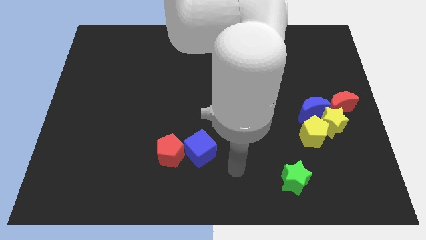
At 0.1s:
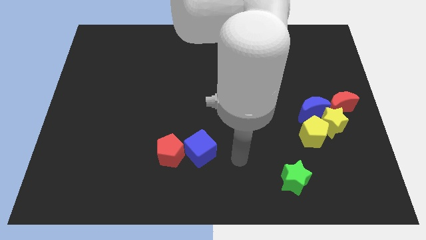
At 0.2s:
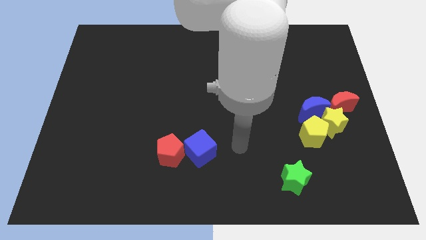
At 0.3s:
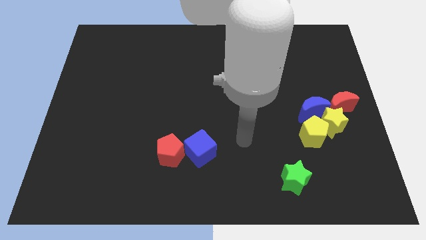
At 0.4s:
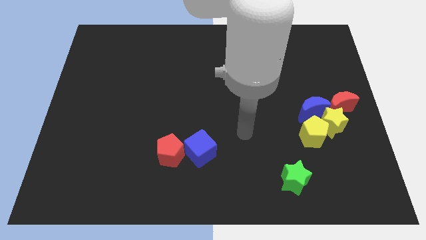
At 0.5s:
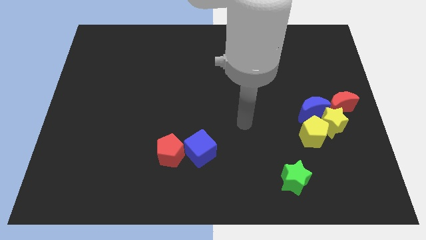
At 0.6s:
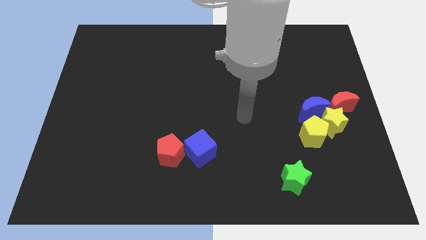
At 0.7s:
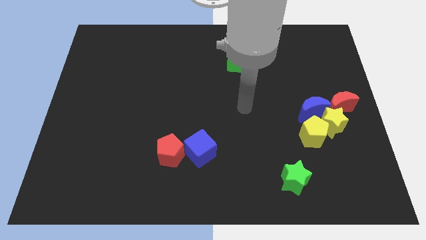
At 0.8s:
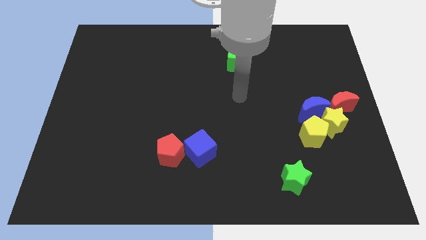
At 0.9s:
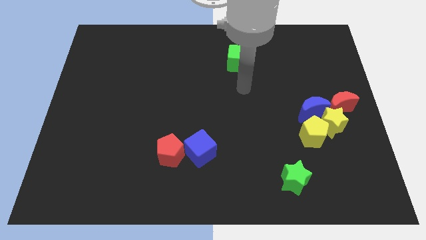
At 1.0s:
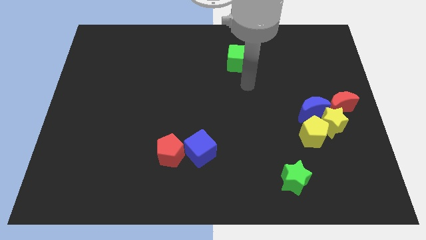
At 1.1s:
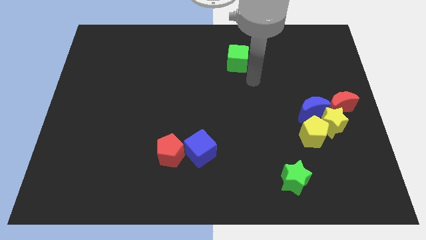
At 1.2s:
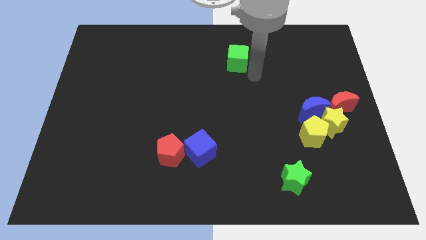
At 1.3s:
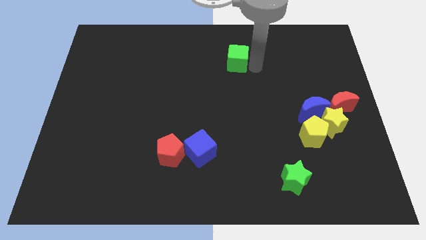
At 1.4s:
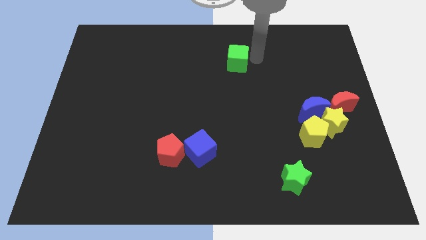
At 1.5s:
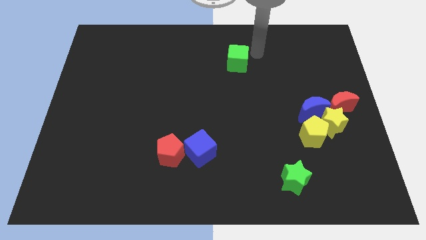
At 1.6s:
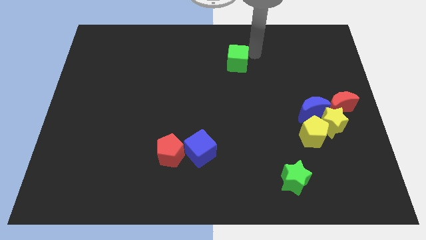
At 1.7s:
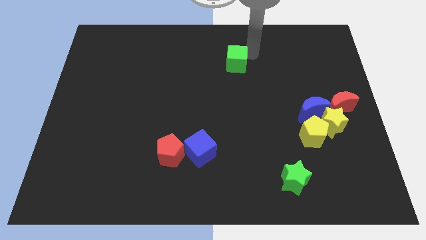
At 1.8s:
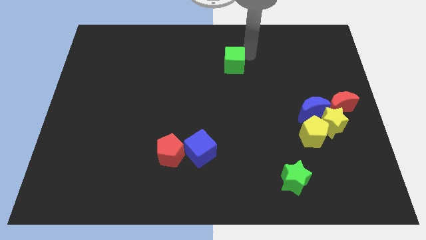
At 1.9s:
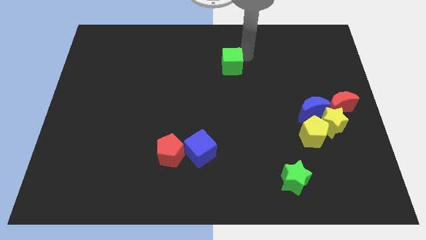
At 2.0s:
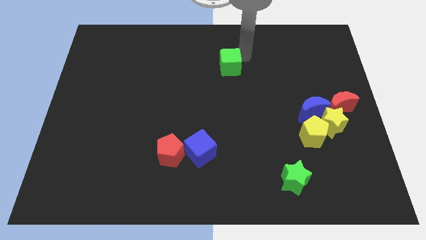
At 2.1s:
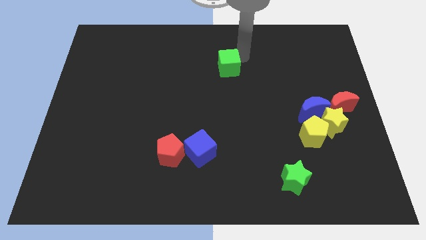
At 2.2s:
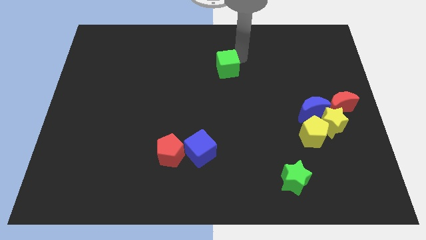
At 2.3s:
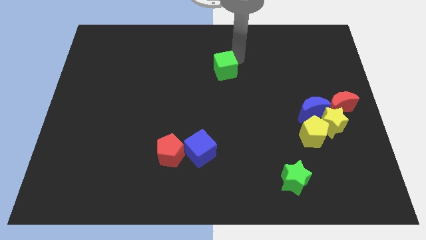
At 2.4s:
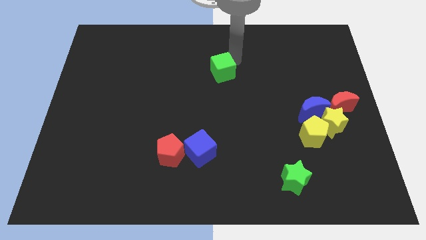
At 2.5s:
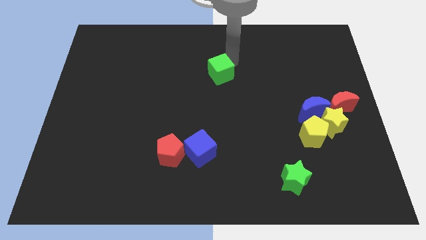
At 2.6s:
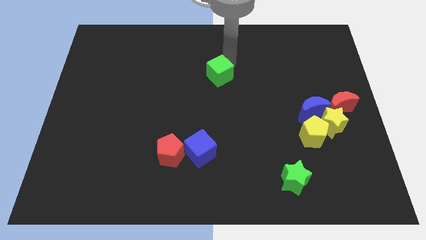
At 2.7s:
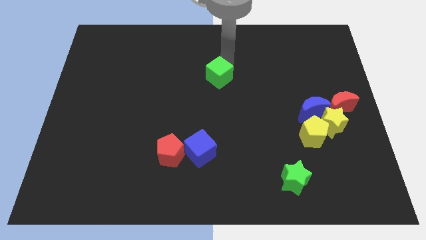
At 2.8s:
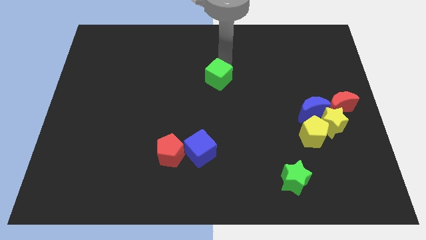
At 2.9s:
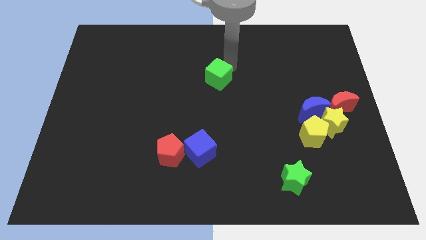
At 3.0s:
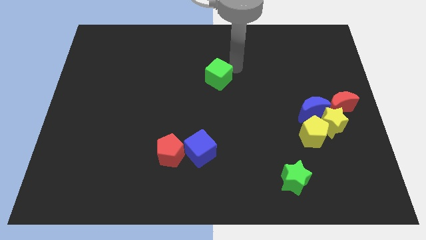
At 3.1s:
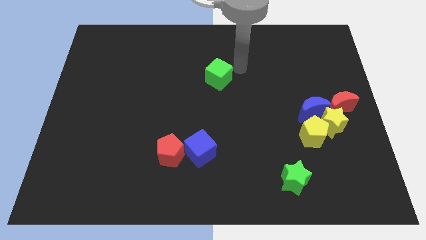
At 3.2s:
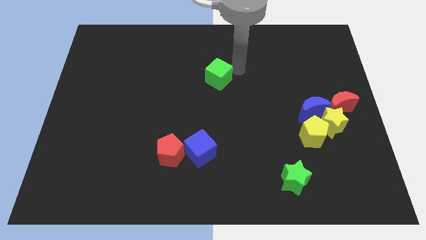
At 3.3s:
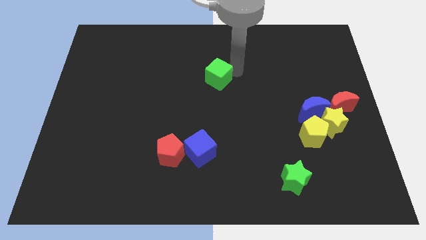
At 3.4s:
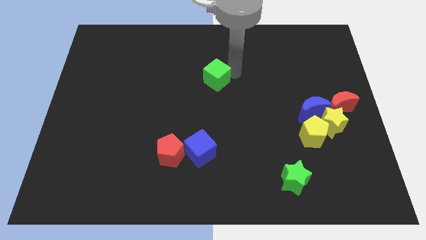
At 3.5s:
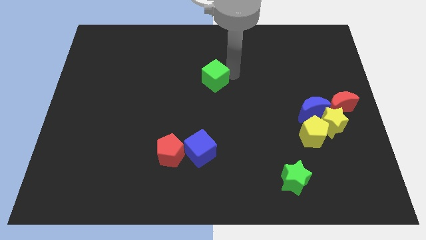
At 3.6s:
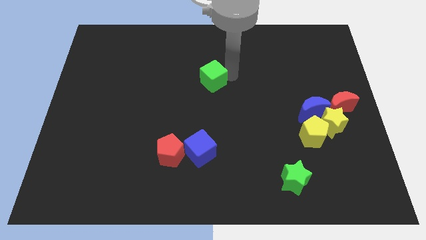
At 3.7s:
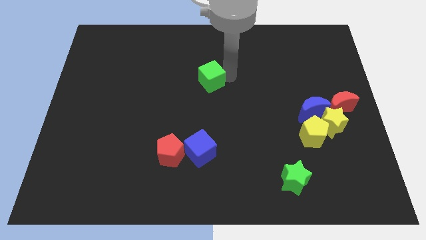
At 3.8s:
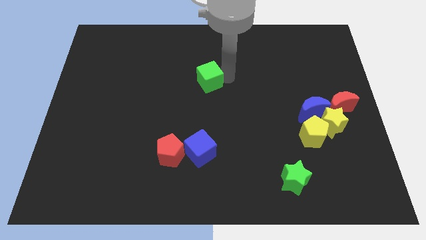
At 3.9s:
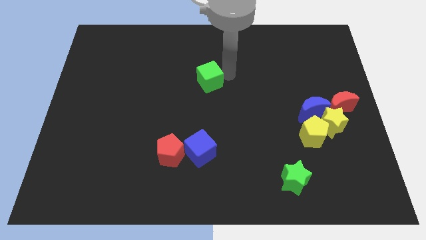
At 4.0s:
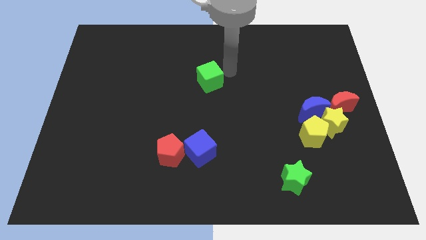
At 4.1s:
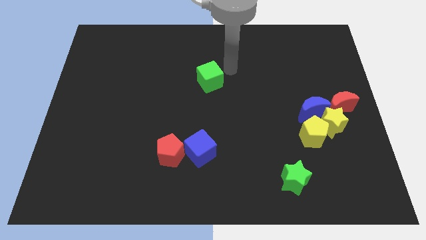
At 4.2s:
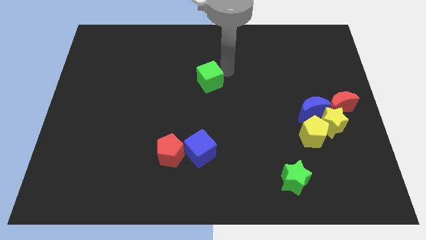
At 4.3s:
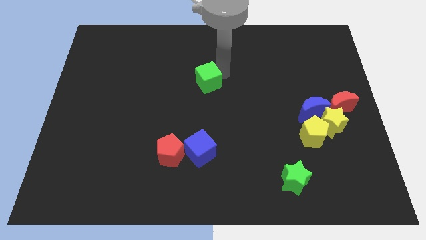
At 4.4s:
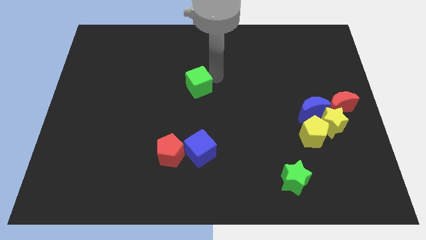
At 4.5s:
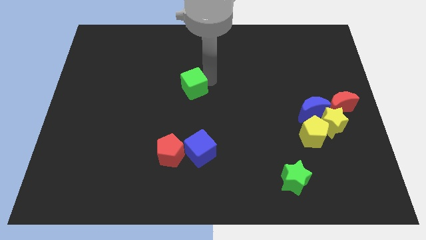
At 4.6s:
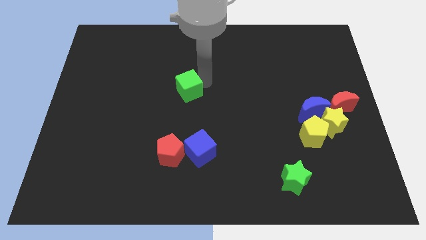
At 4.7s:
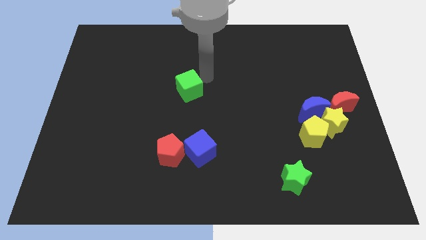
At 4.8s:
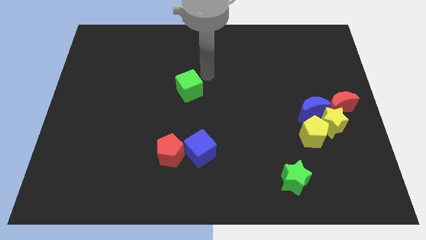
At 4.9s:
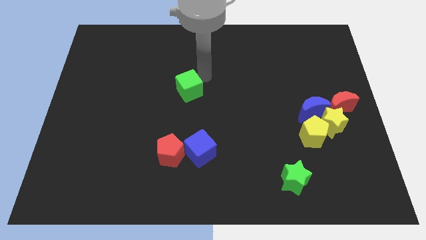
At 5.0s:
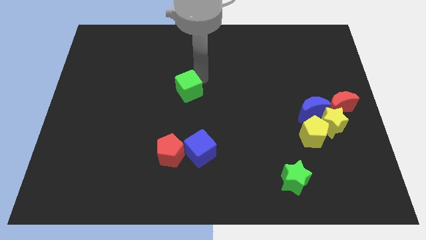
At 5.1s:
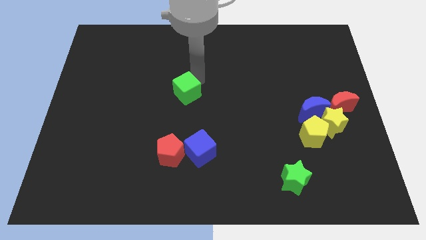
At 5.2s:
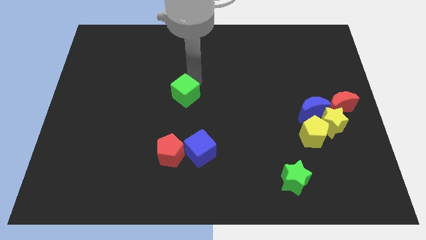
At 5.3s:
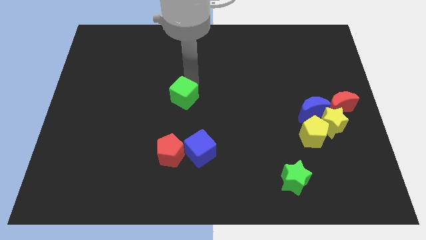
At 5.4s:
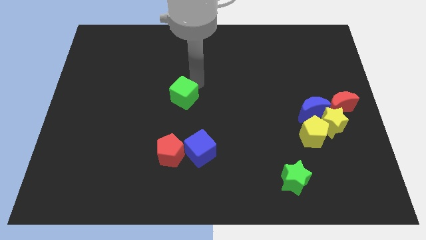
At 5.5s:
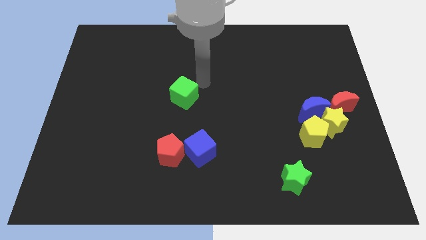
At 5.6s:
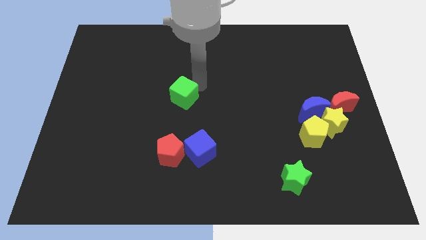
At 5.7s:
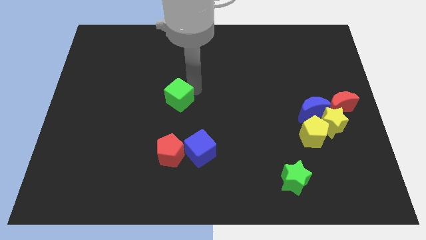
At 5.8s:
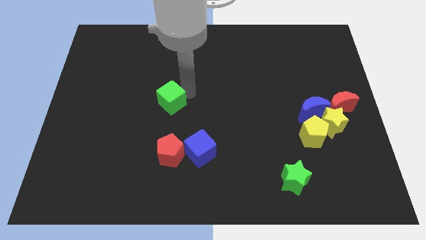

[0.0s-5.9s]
push the green cube diagonally downwards and left

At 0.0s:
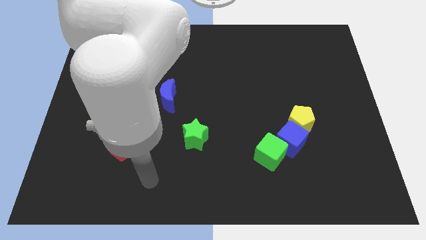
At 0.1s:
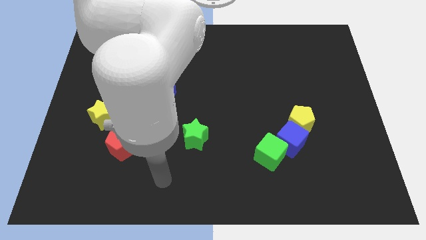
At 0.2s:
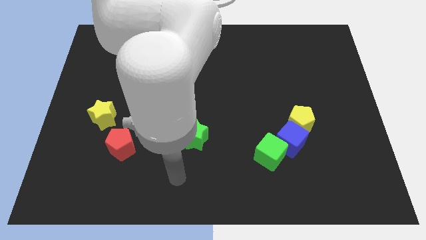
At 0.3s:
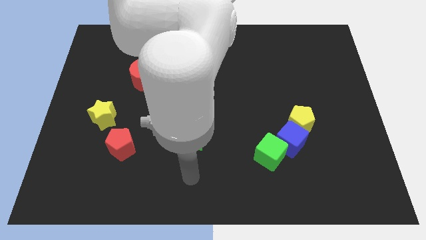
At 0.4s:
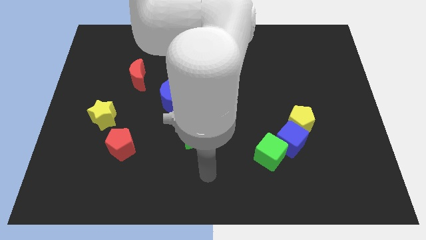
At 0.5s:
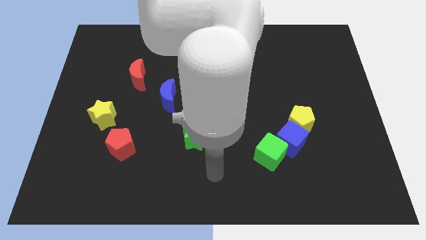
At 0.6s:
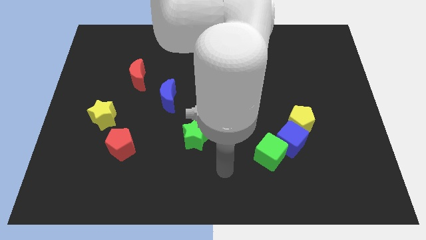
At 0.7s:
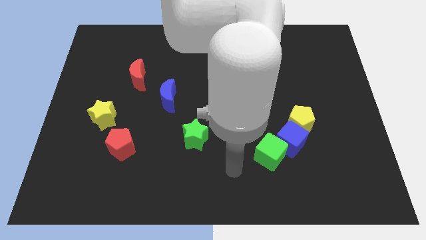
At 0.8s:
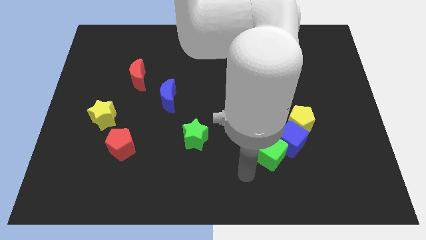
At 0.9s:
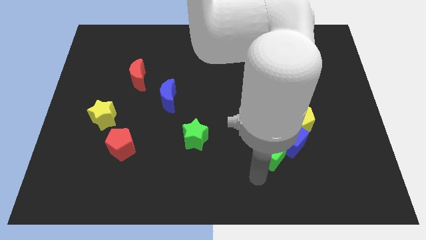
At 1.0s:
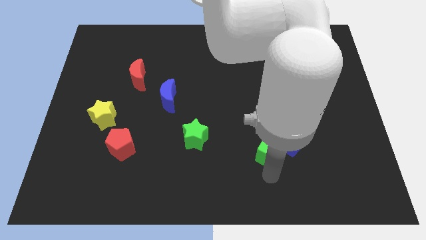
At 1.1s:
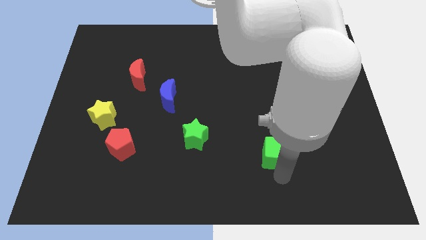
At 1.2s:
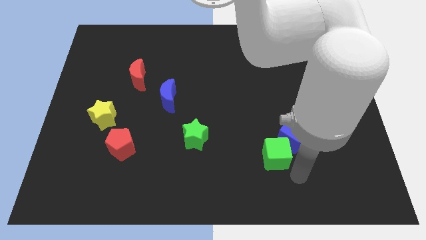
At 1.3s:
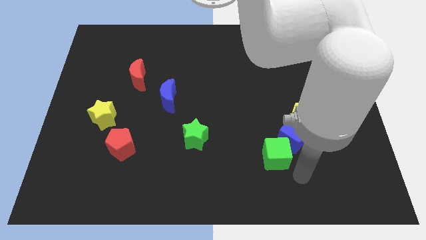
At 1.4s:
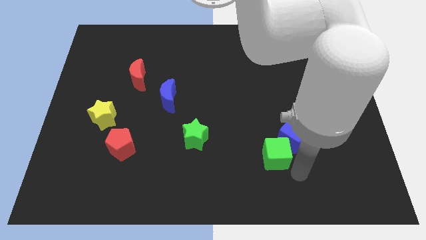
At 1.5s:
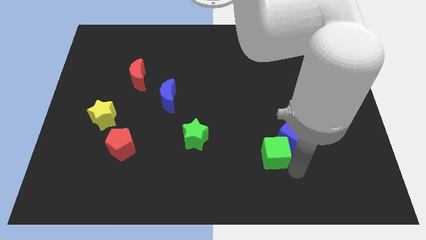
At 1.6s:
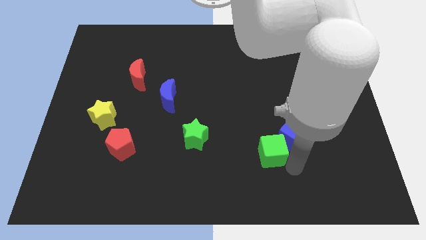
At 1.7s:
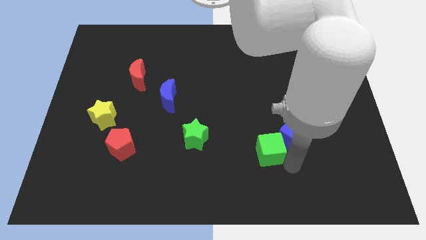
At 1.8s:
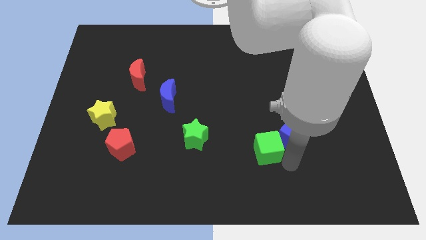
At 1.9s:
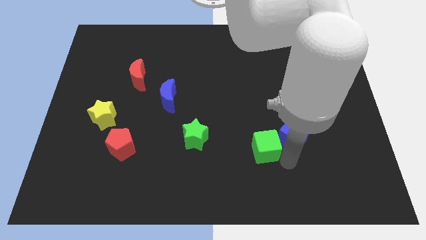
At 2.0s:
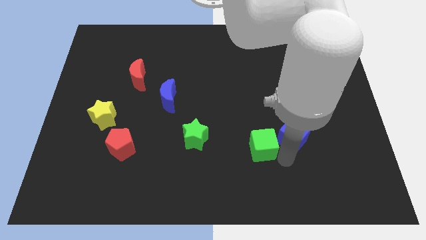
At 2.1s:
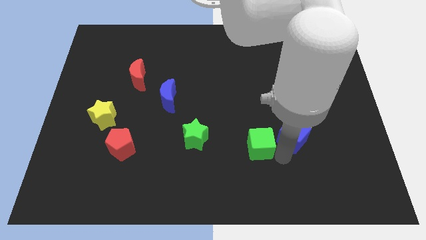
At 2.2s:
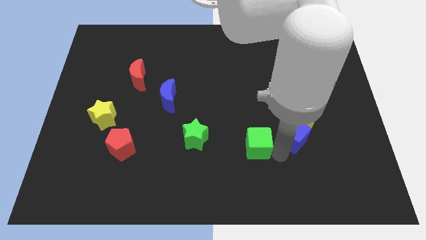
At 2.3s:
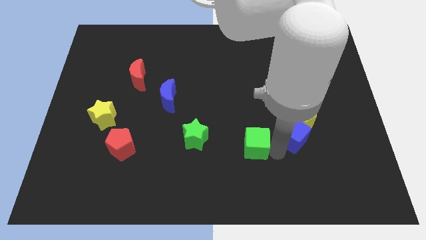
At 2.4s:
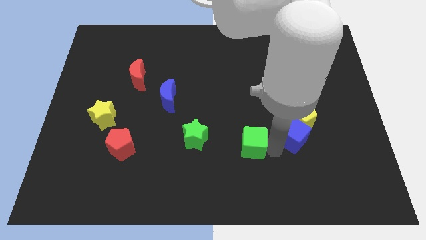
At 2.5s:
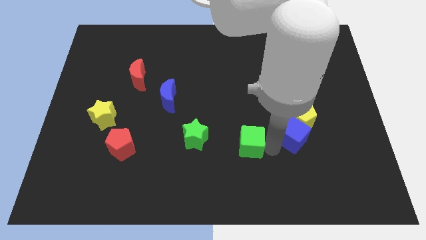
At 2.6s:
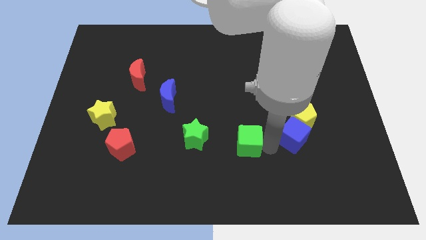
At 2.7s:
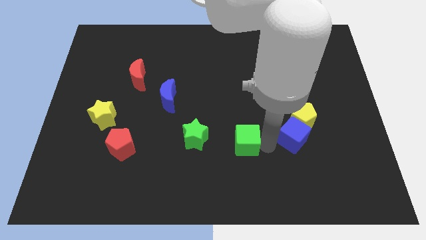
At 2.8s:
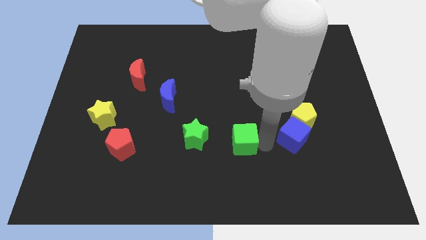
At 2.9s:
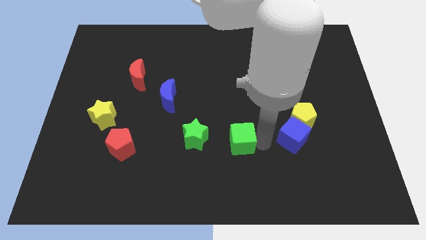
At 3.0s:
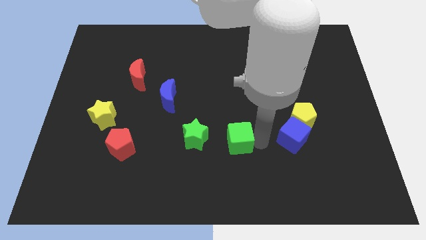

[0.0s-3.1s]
slightly slide the green cube up and left
